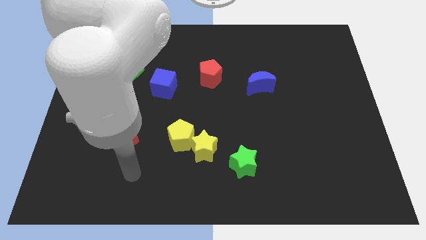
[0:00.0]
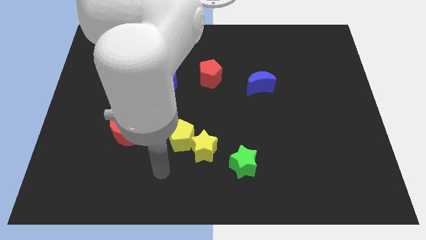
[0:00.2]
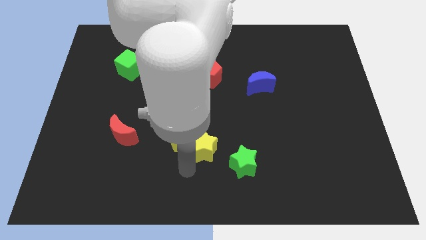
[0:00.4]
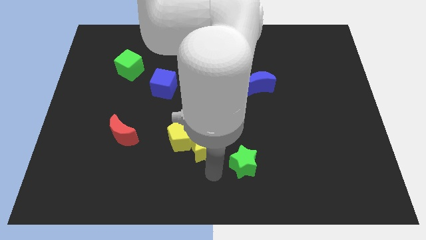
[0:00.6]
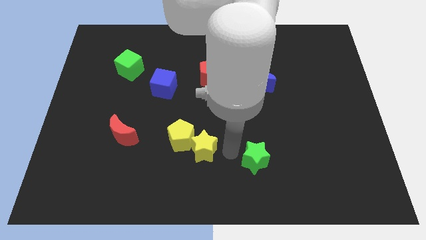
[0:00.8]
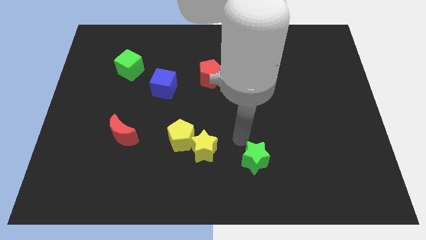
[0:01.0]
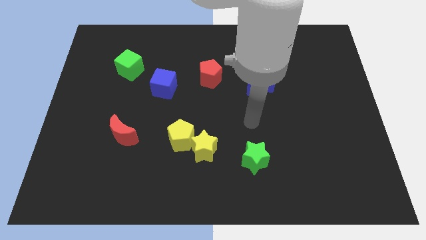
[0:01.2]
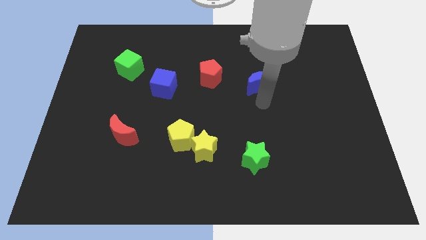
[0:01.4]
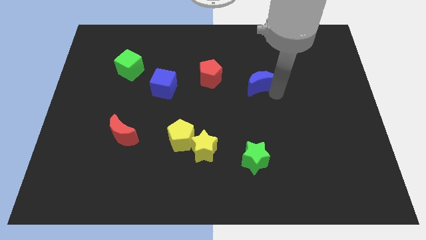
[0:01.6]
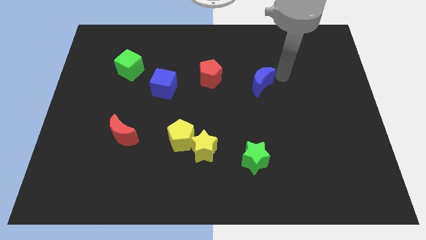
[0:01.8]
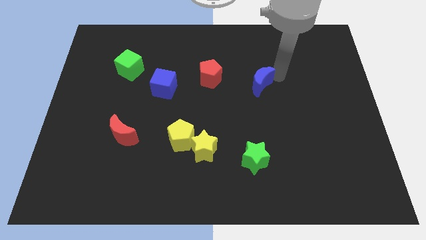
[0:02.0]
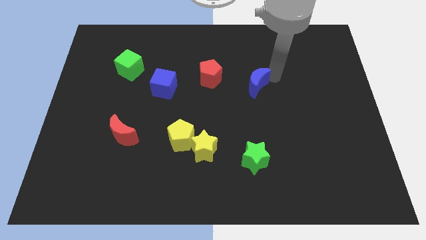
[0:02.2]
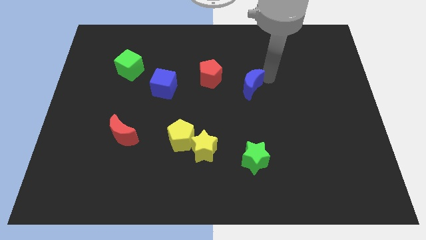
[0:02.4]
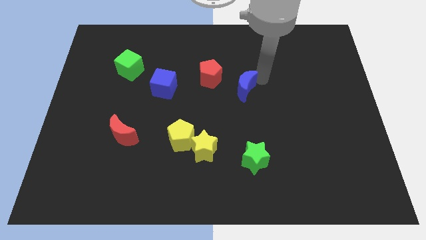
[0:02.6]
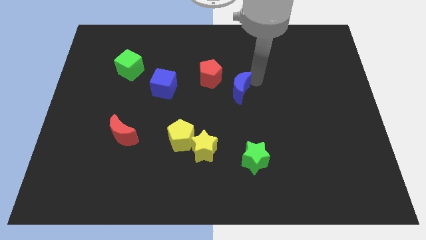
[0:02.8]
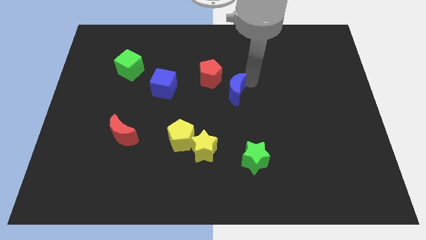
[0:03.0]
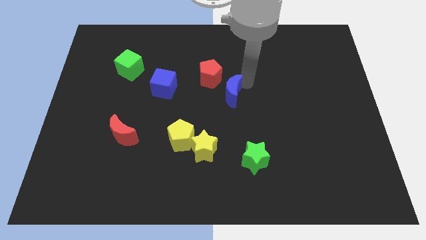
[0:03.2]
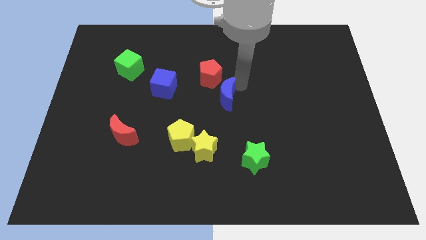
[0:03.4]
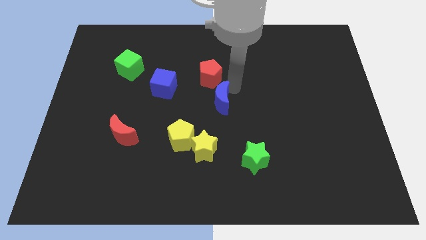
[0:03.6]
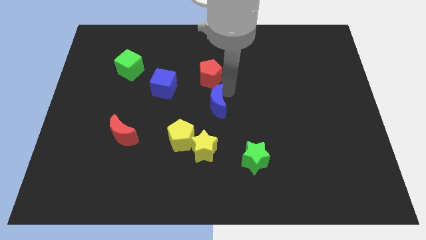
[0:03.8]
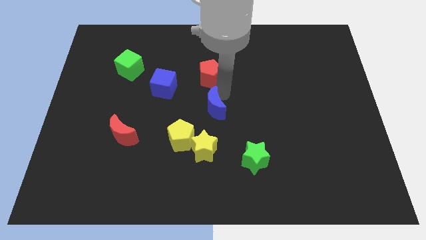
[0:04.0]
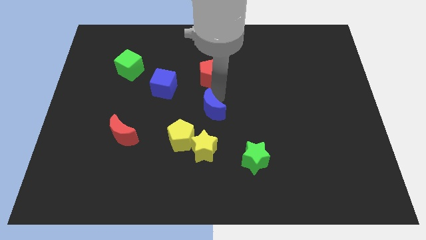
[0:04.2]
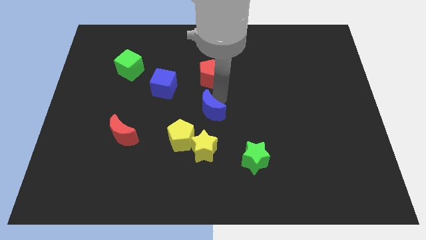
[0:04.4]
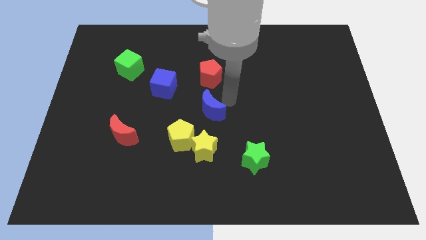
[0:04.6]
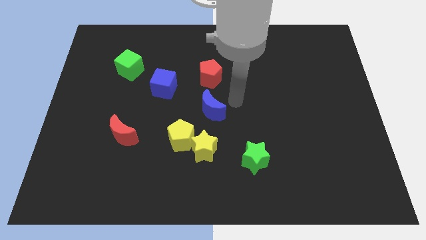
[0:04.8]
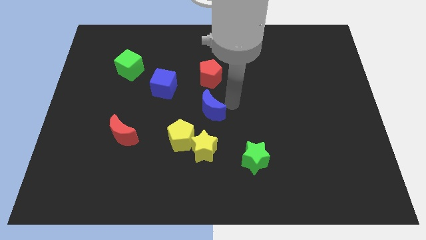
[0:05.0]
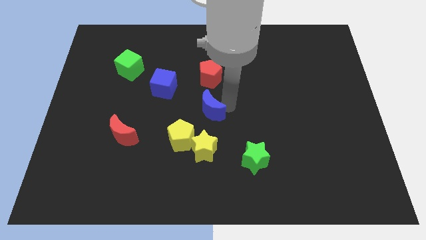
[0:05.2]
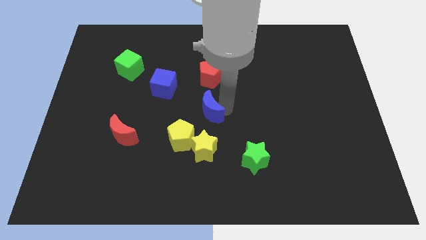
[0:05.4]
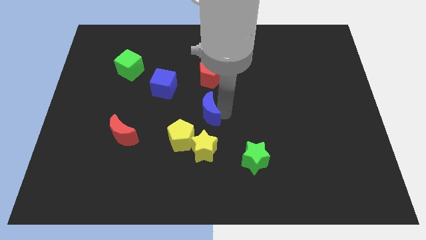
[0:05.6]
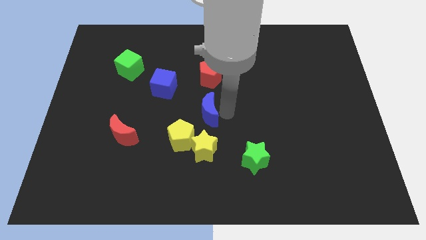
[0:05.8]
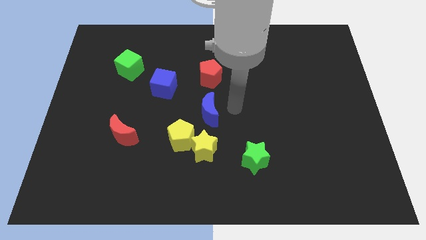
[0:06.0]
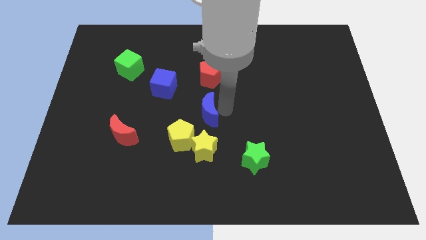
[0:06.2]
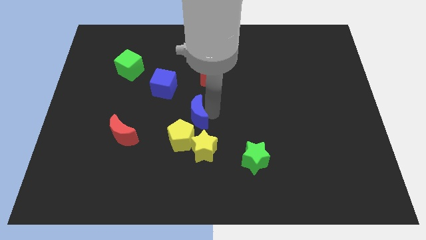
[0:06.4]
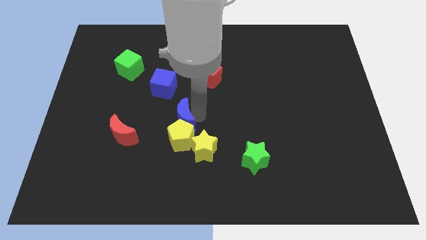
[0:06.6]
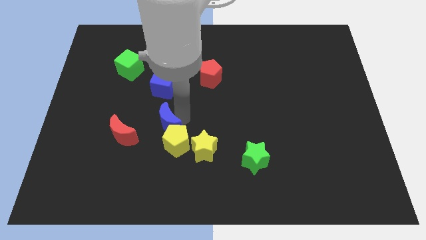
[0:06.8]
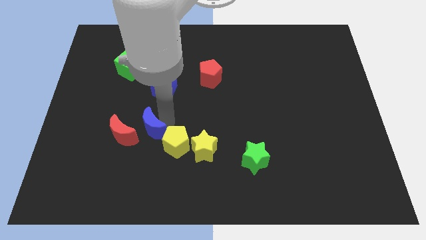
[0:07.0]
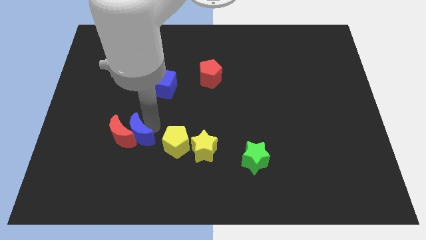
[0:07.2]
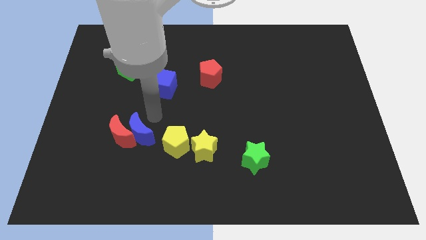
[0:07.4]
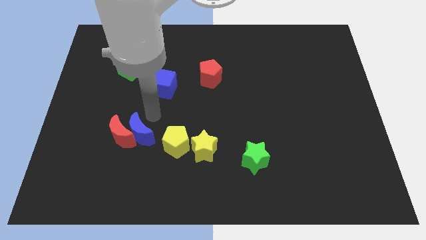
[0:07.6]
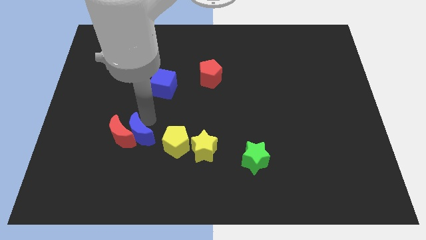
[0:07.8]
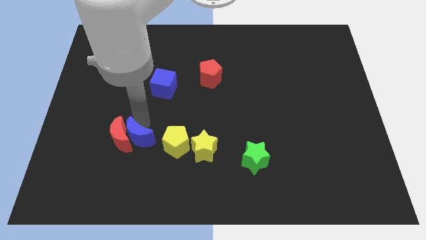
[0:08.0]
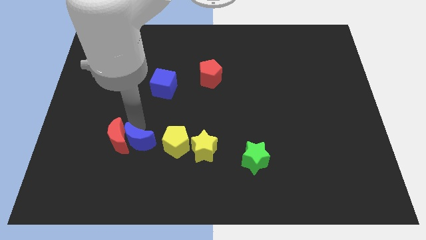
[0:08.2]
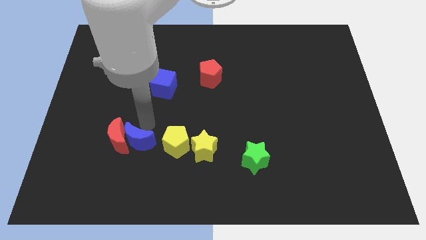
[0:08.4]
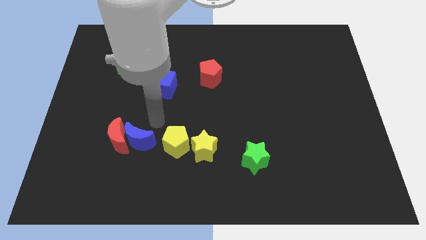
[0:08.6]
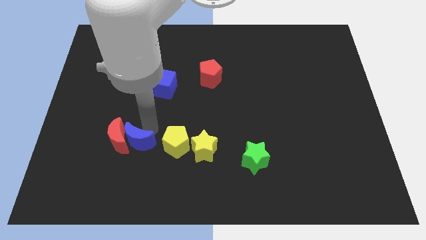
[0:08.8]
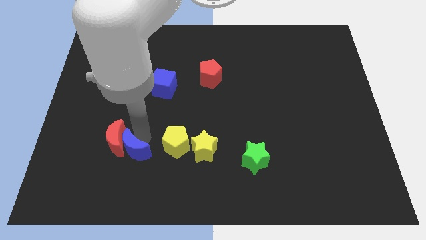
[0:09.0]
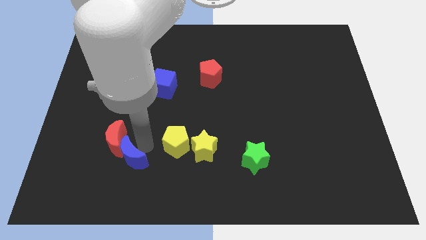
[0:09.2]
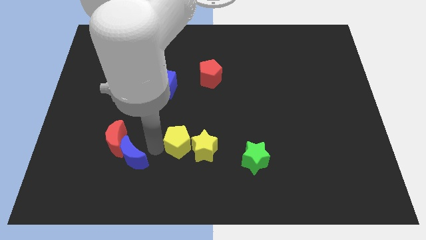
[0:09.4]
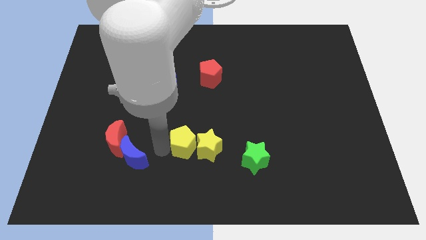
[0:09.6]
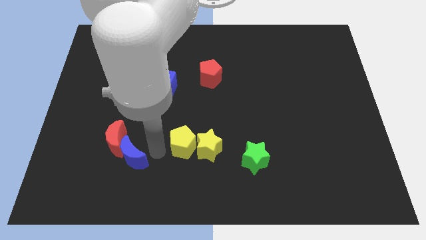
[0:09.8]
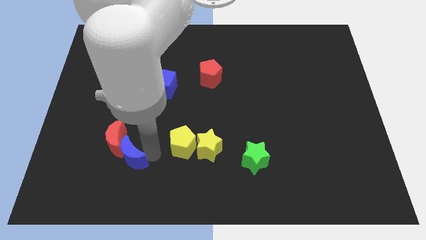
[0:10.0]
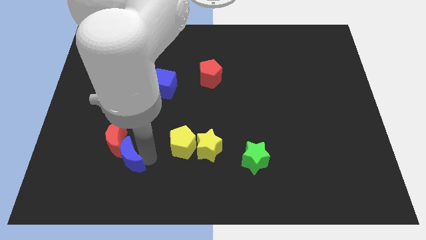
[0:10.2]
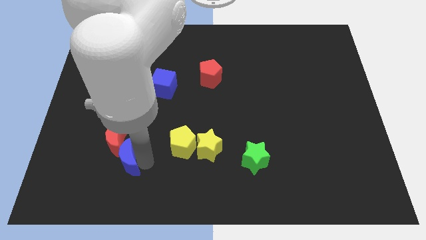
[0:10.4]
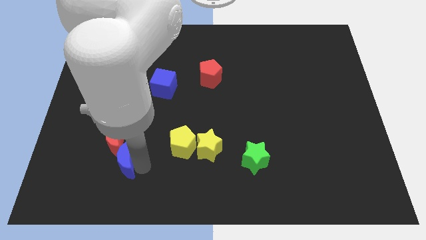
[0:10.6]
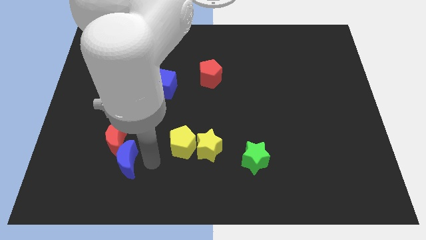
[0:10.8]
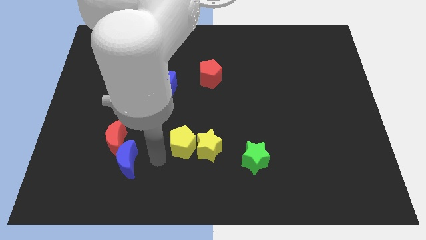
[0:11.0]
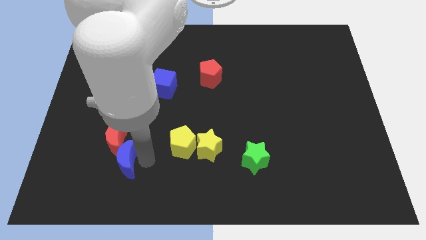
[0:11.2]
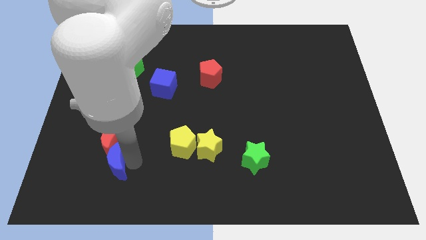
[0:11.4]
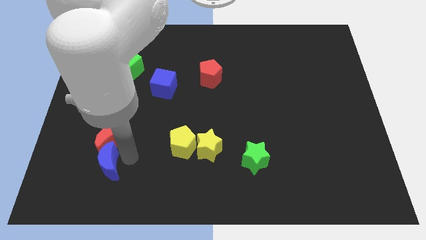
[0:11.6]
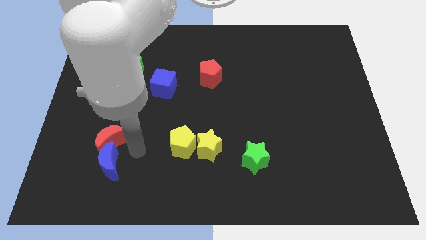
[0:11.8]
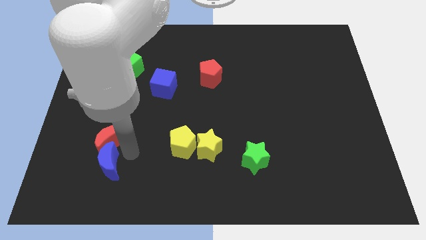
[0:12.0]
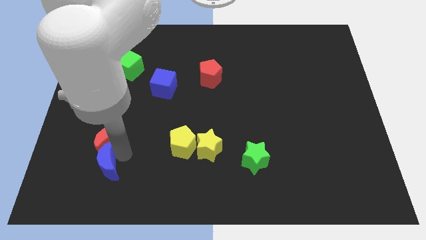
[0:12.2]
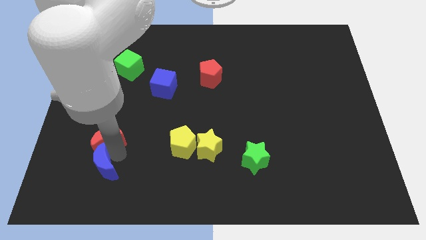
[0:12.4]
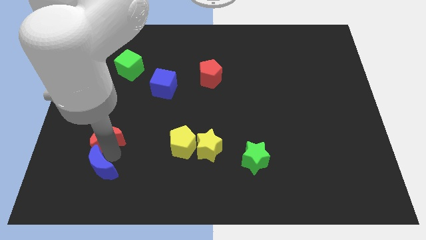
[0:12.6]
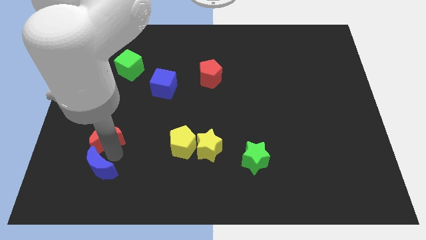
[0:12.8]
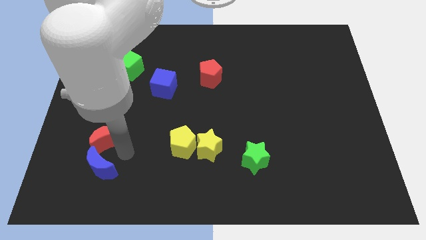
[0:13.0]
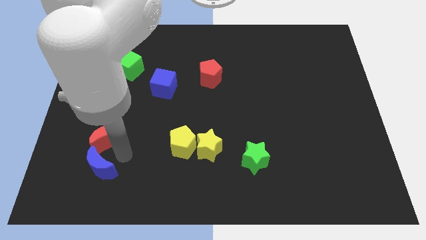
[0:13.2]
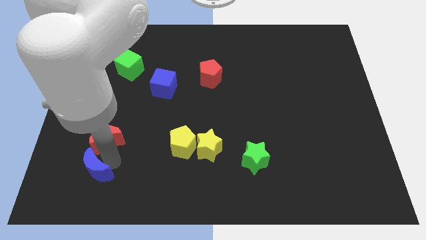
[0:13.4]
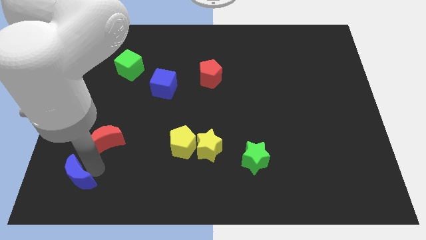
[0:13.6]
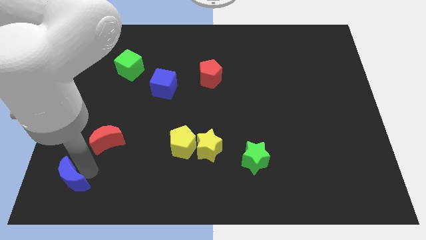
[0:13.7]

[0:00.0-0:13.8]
put the blue moon to the bottom left corner

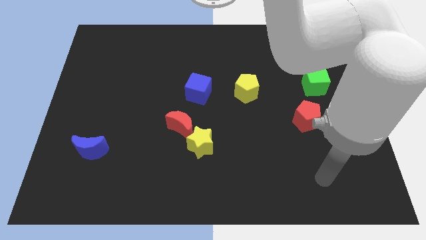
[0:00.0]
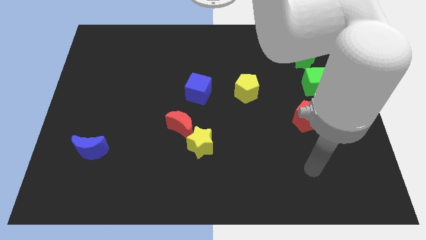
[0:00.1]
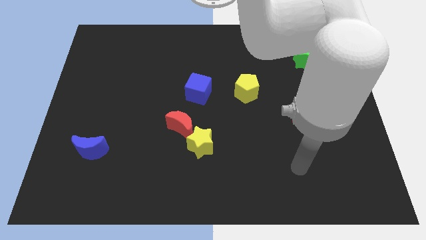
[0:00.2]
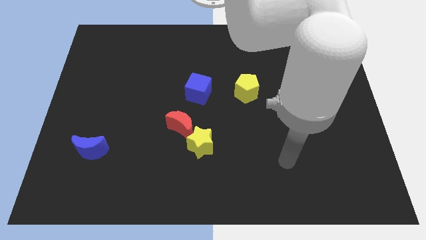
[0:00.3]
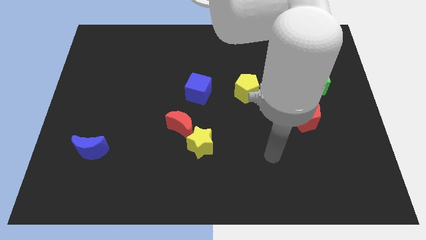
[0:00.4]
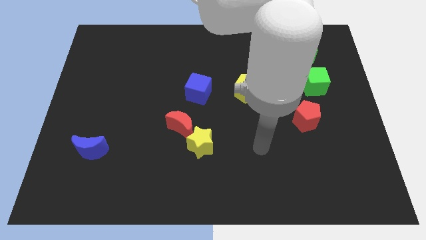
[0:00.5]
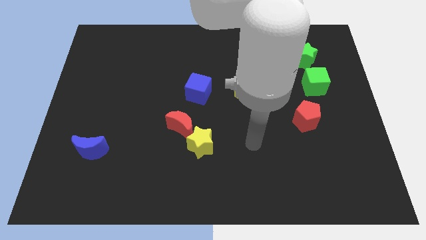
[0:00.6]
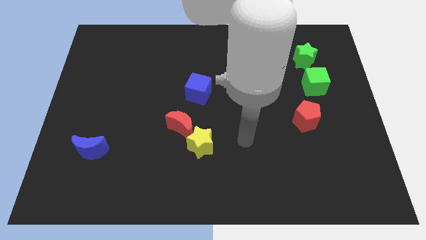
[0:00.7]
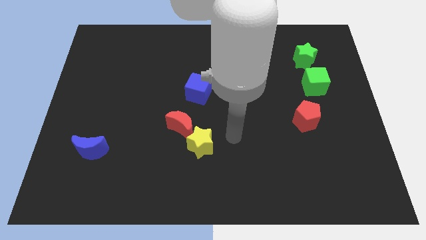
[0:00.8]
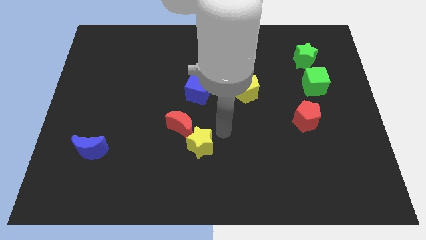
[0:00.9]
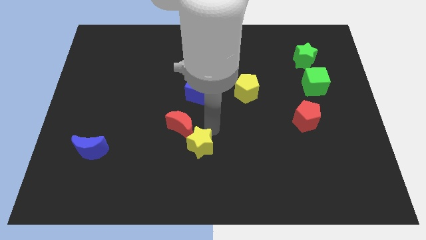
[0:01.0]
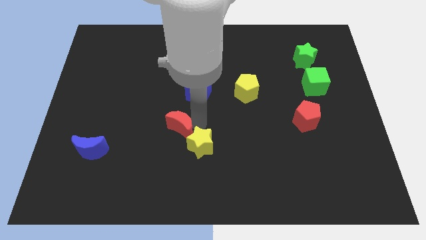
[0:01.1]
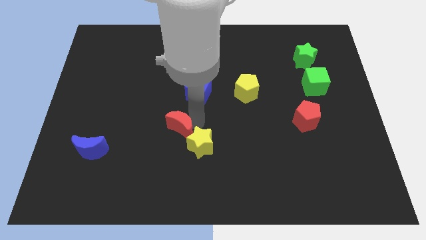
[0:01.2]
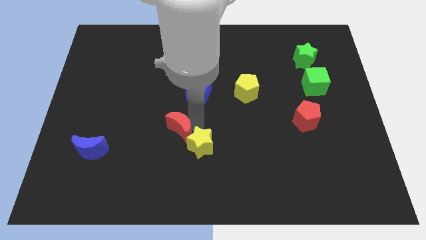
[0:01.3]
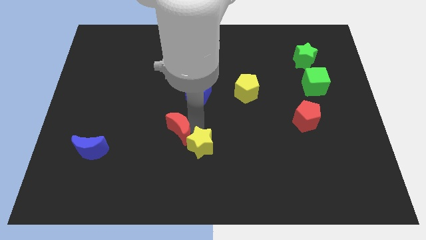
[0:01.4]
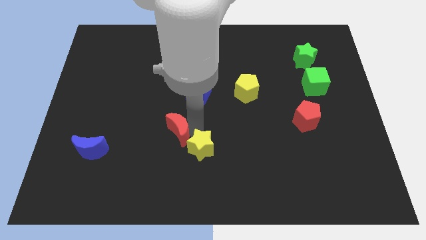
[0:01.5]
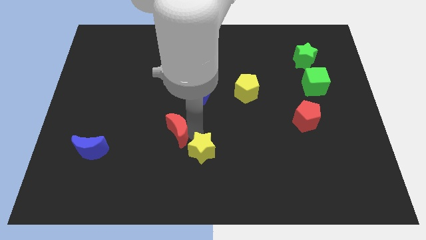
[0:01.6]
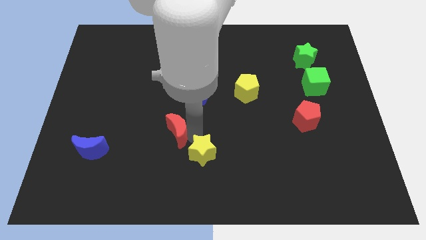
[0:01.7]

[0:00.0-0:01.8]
put the yellow star to the bottom
